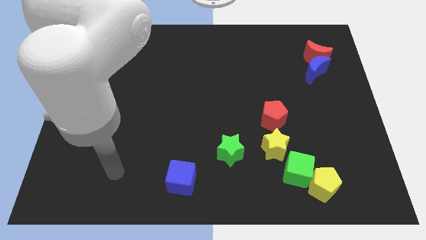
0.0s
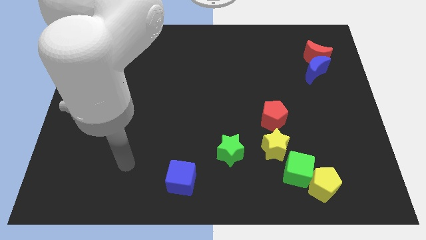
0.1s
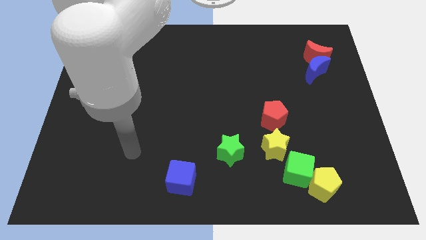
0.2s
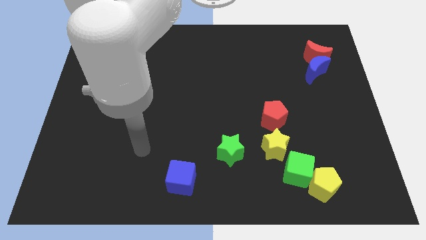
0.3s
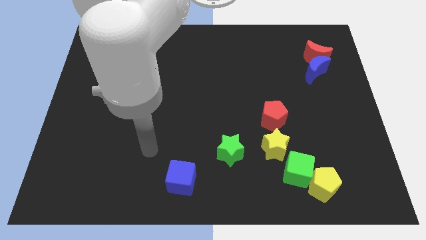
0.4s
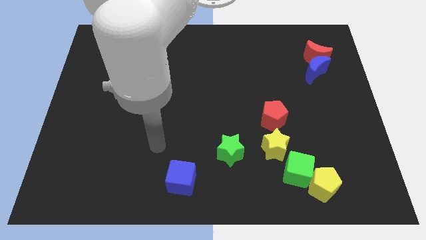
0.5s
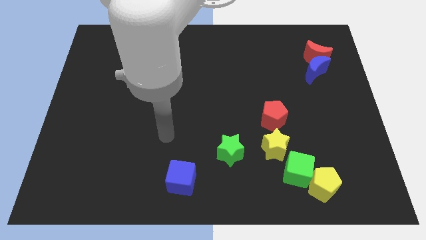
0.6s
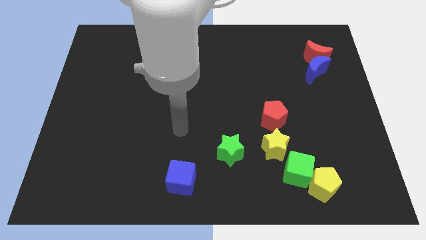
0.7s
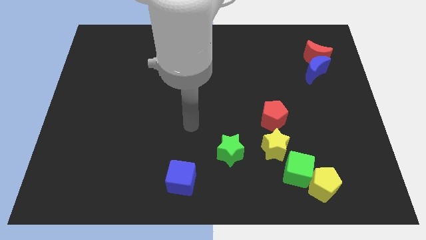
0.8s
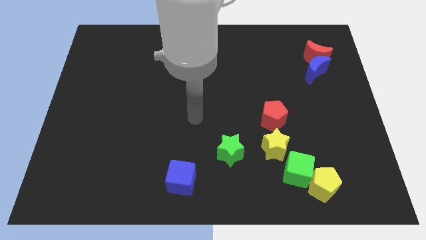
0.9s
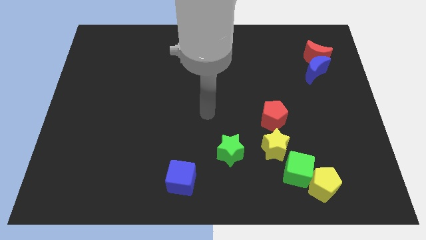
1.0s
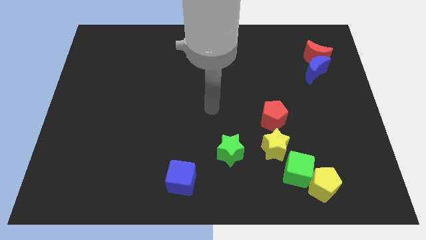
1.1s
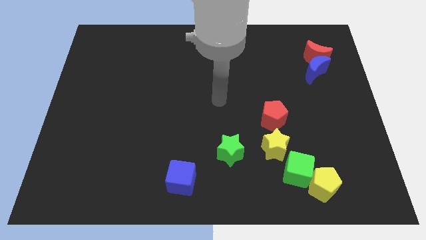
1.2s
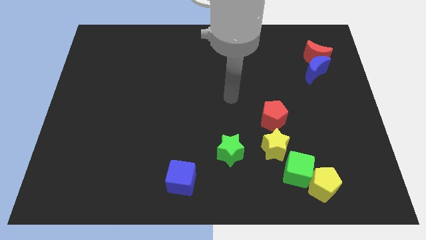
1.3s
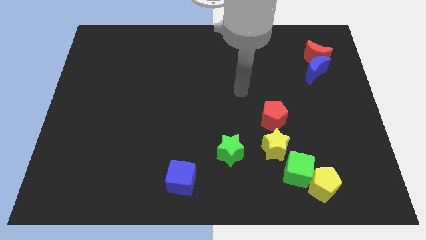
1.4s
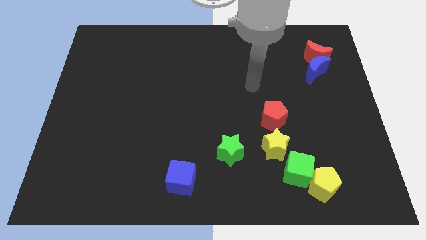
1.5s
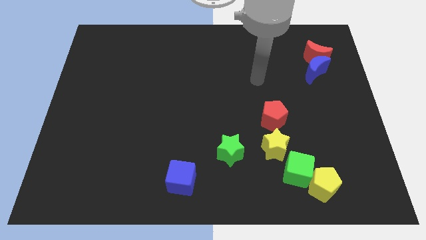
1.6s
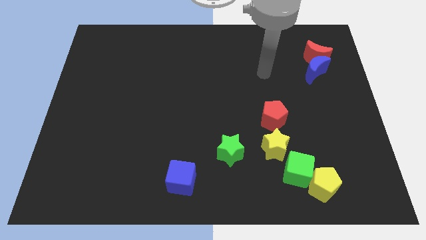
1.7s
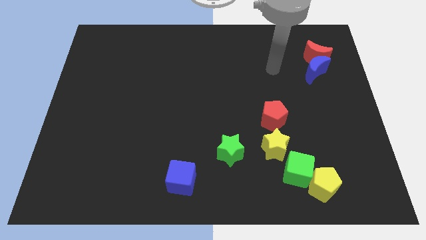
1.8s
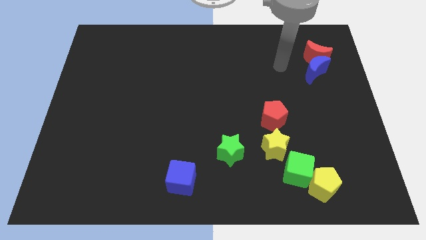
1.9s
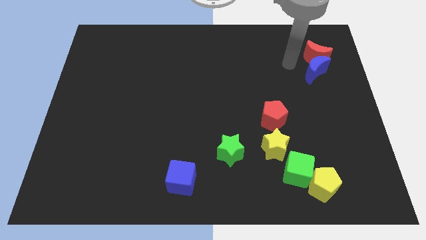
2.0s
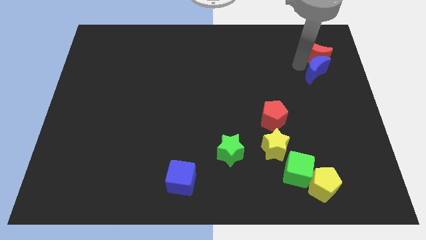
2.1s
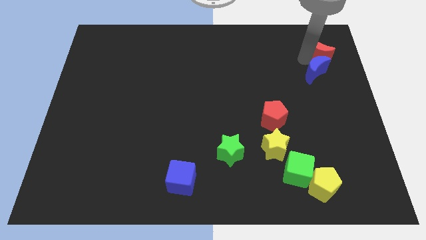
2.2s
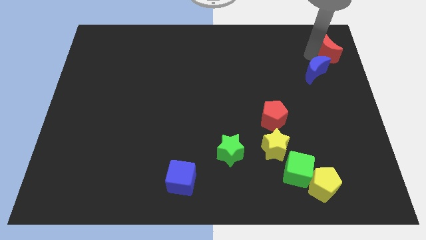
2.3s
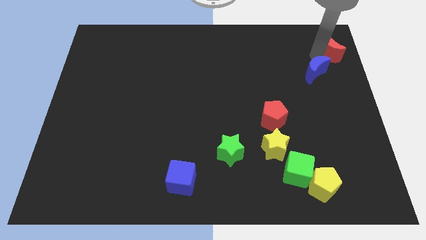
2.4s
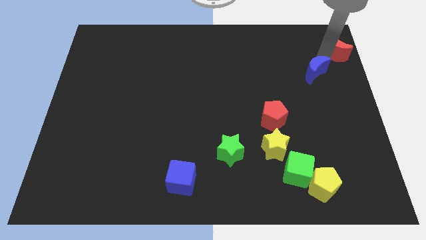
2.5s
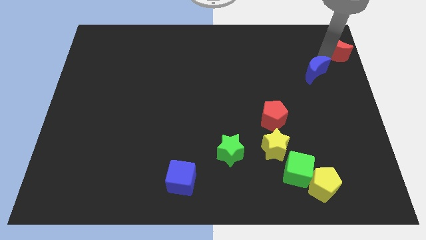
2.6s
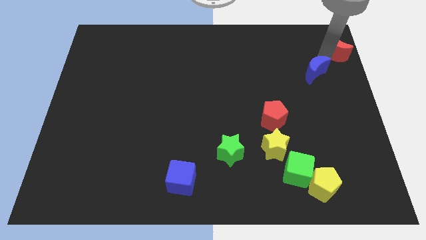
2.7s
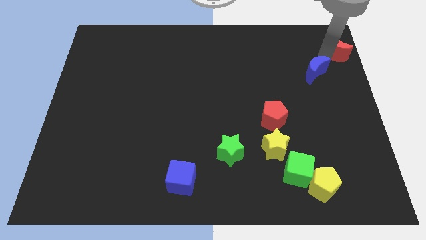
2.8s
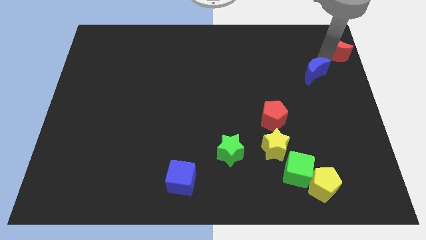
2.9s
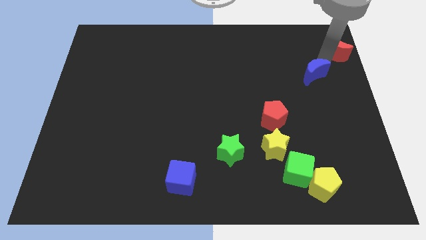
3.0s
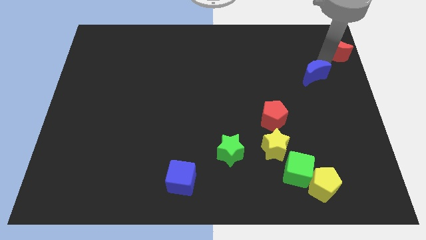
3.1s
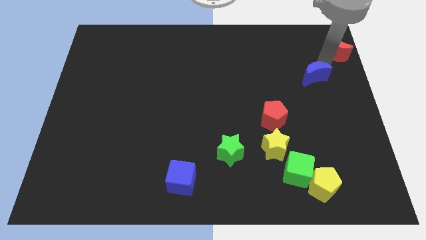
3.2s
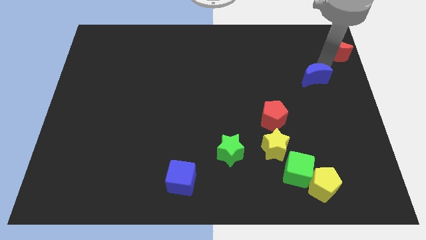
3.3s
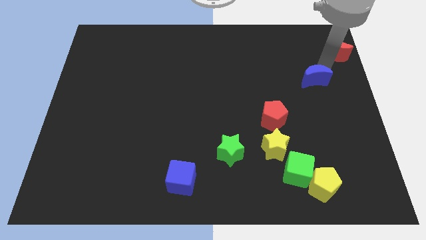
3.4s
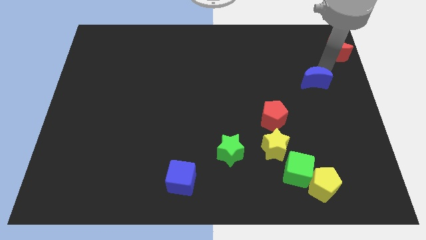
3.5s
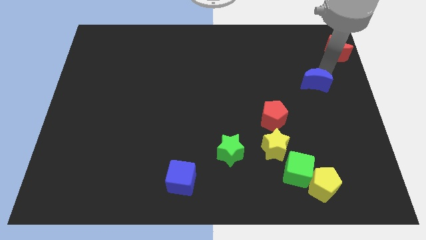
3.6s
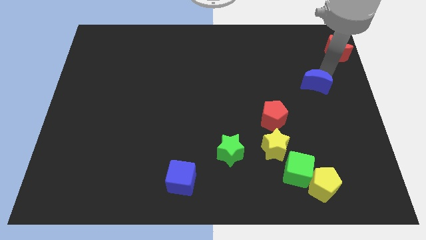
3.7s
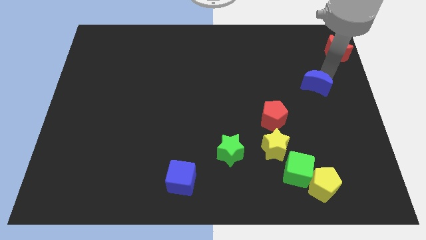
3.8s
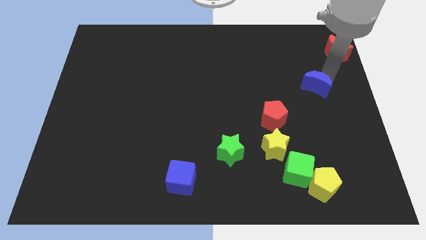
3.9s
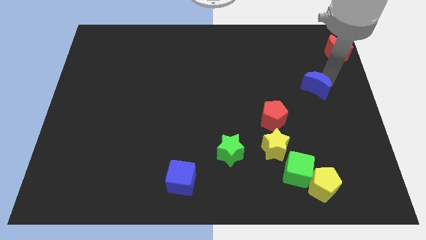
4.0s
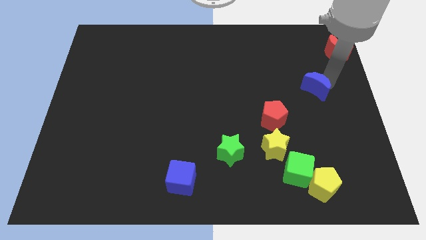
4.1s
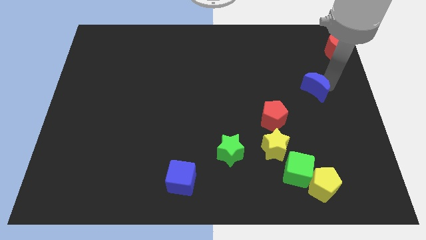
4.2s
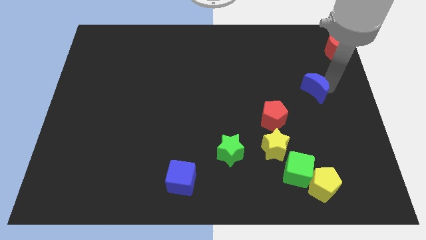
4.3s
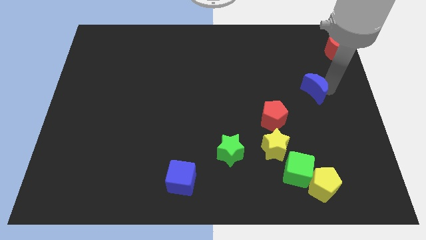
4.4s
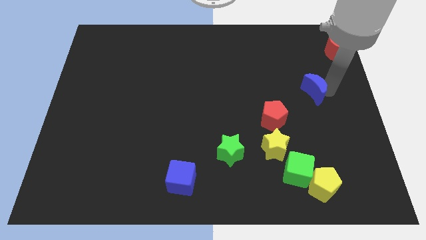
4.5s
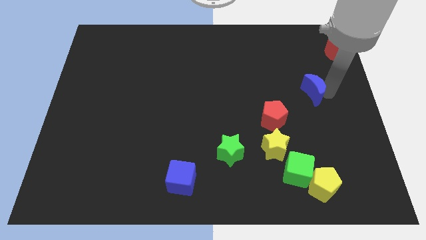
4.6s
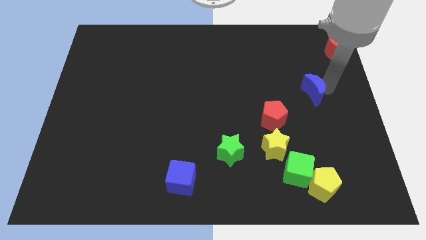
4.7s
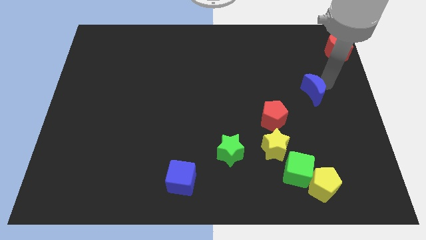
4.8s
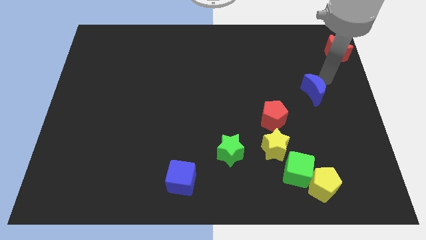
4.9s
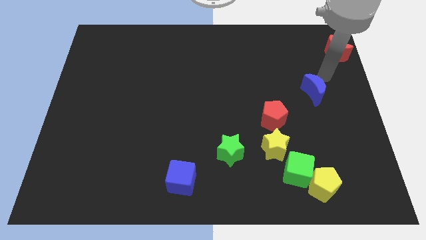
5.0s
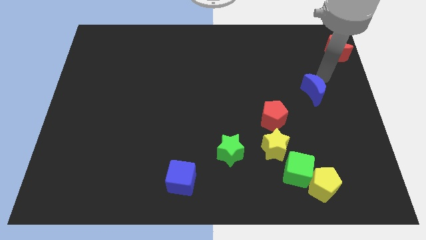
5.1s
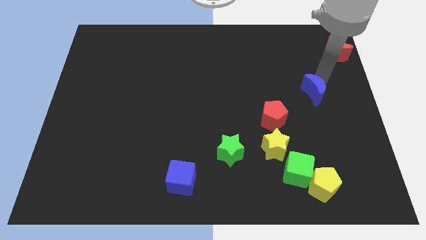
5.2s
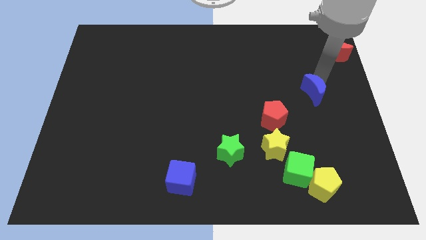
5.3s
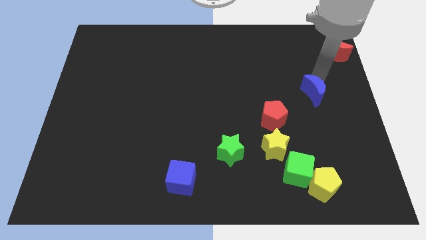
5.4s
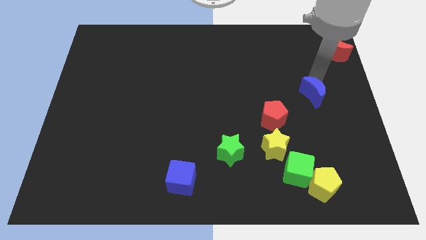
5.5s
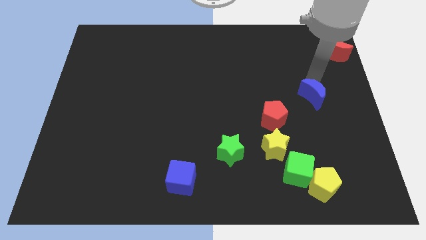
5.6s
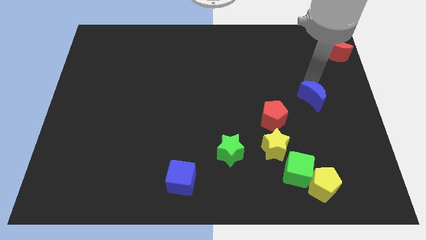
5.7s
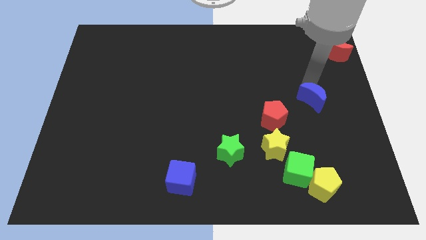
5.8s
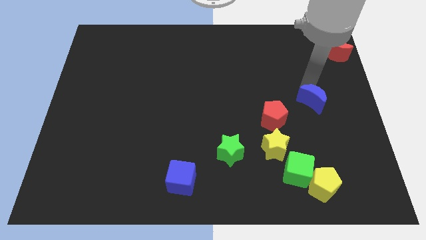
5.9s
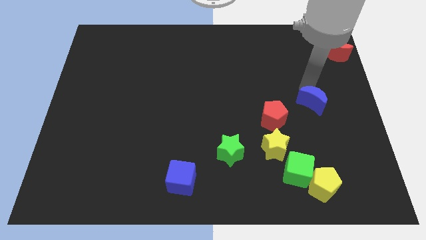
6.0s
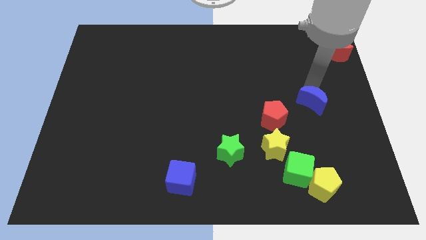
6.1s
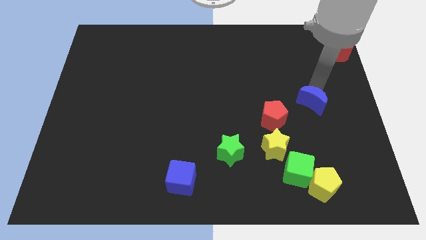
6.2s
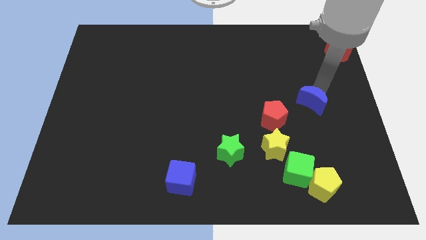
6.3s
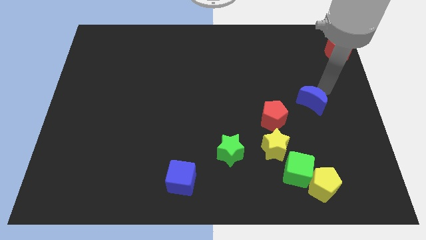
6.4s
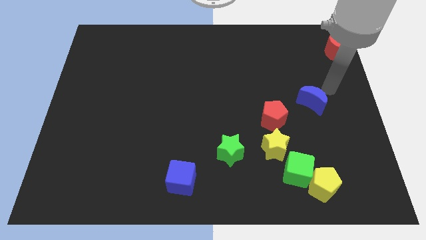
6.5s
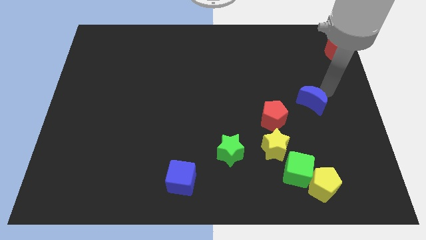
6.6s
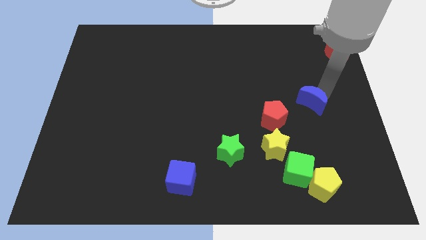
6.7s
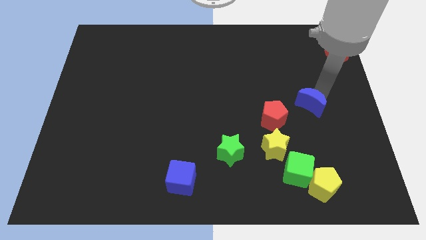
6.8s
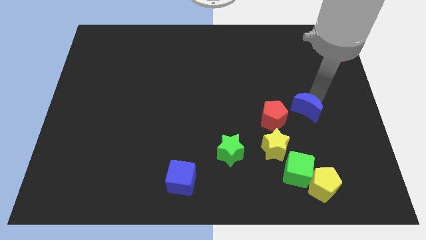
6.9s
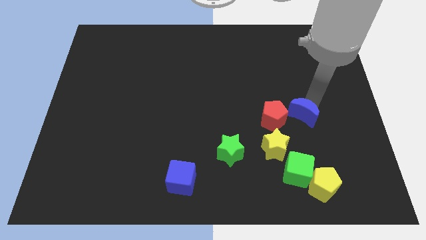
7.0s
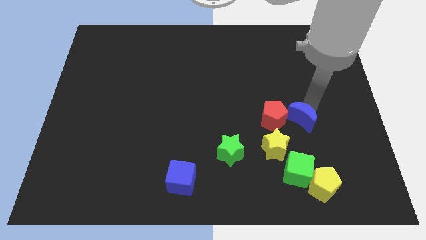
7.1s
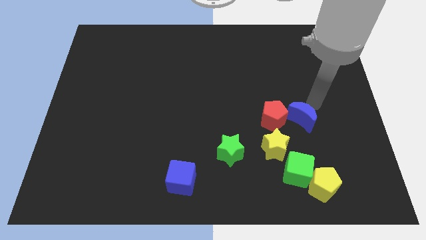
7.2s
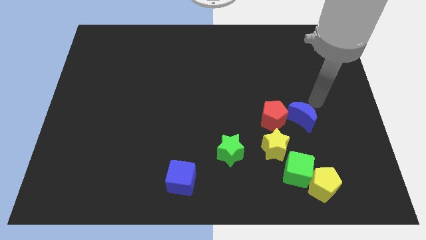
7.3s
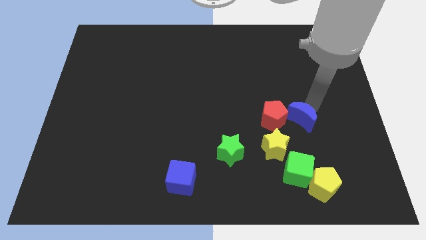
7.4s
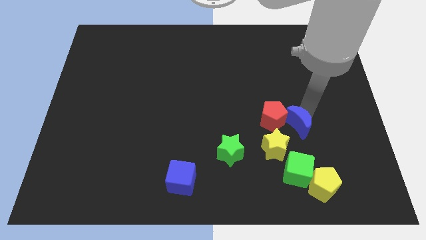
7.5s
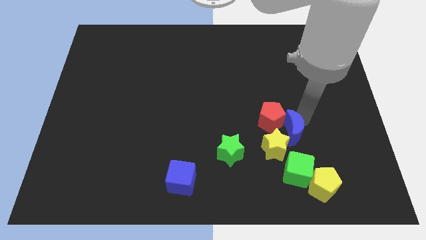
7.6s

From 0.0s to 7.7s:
push the blue moon close to the yellow star
